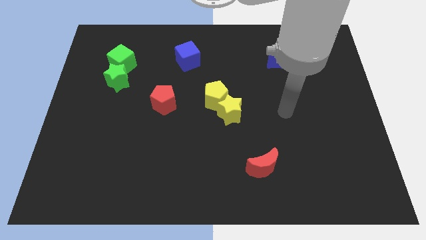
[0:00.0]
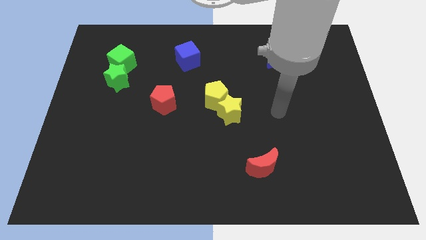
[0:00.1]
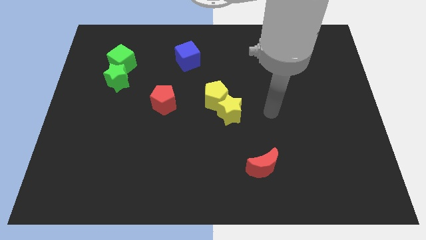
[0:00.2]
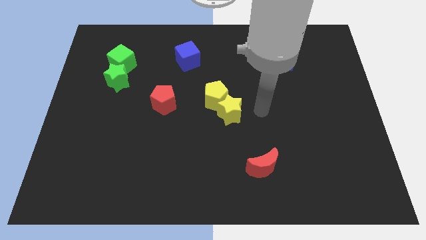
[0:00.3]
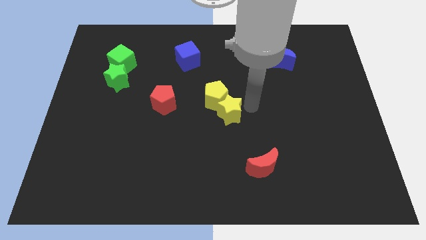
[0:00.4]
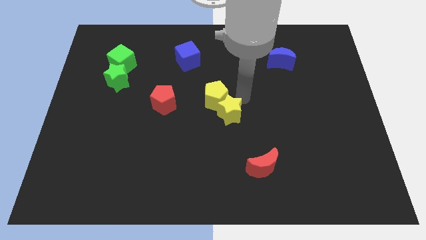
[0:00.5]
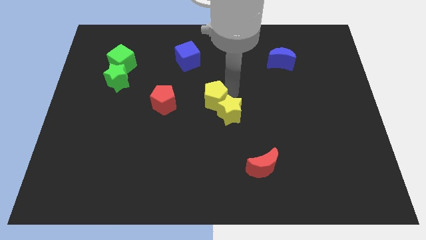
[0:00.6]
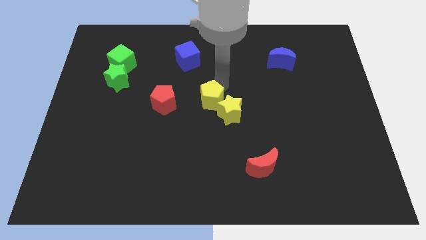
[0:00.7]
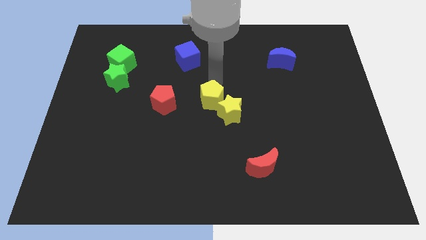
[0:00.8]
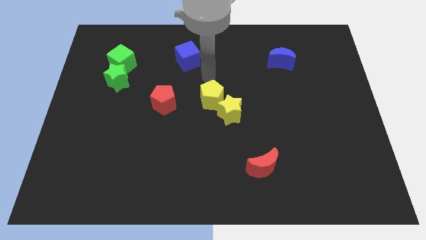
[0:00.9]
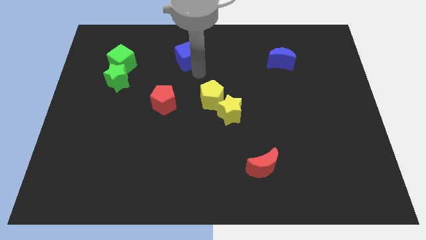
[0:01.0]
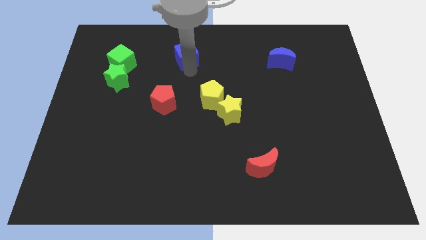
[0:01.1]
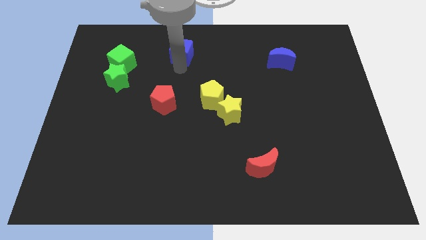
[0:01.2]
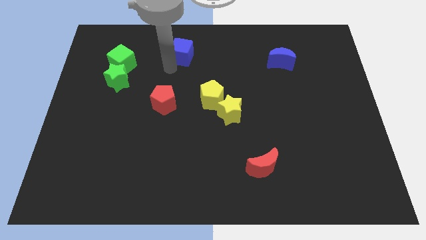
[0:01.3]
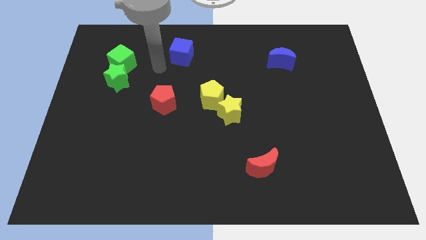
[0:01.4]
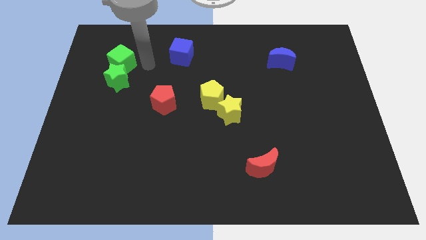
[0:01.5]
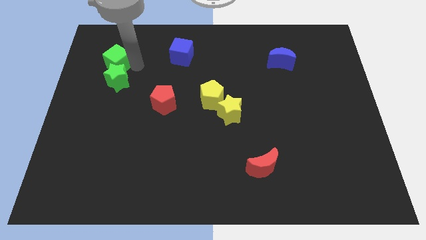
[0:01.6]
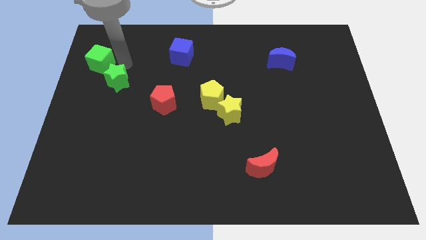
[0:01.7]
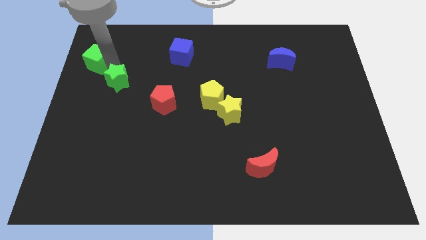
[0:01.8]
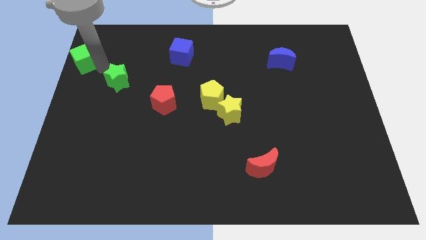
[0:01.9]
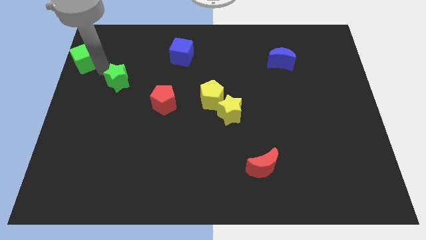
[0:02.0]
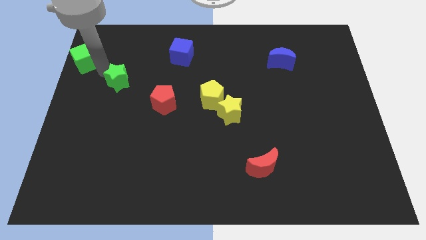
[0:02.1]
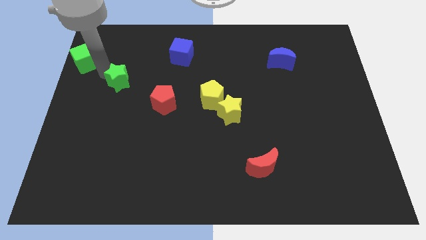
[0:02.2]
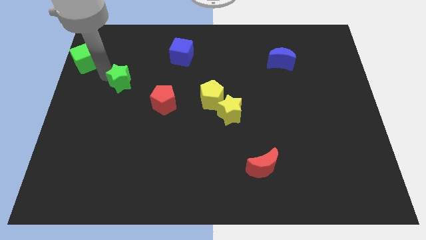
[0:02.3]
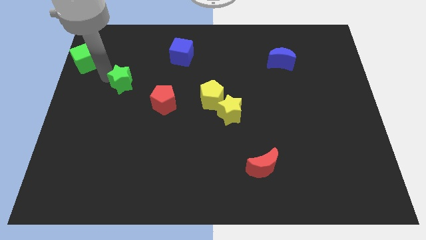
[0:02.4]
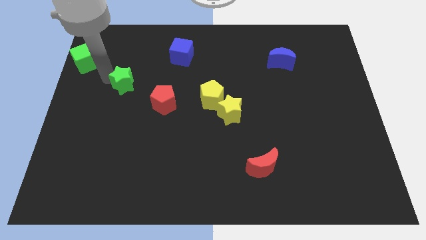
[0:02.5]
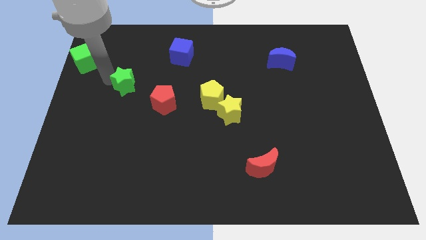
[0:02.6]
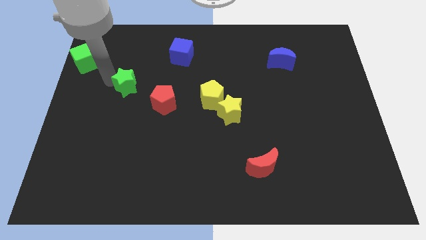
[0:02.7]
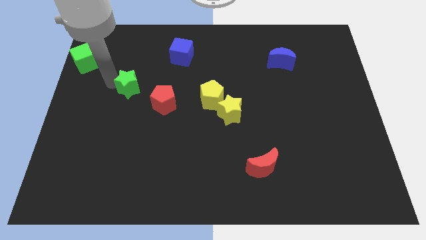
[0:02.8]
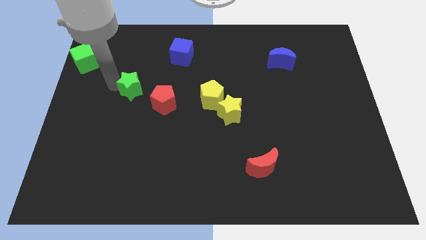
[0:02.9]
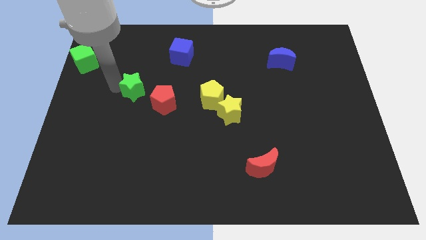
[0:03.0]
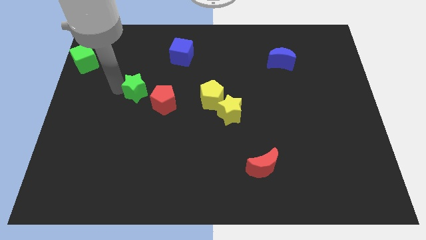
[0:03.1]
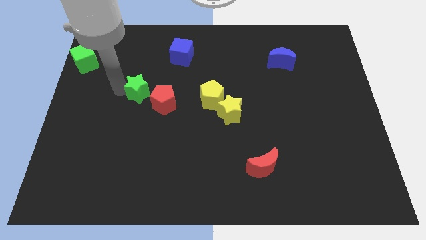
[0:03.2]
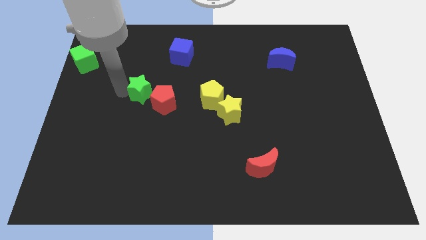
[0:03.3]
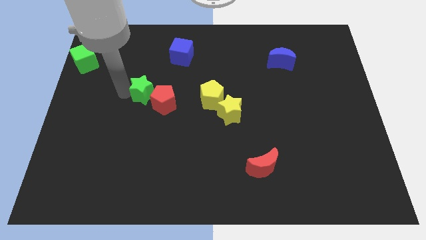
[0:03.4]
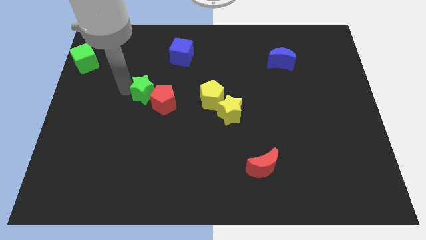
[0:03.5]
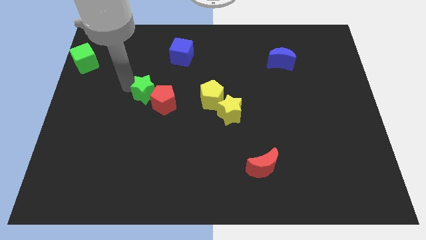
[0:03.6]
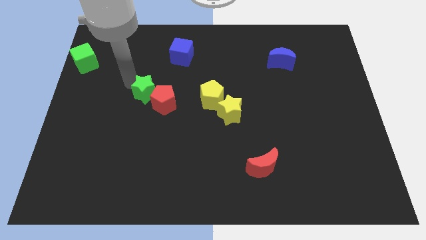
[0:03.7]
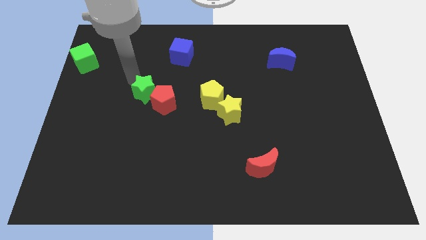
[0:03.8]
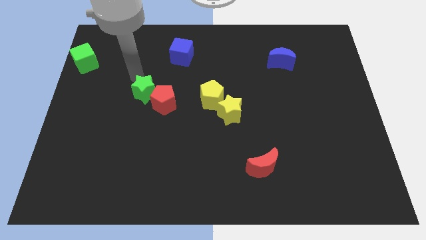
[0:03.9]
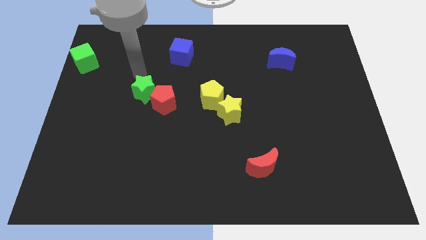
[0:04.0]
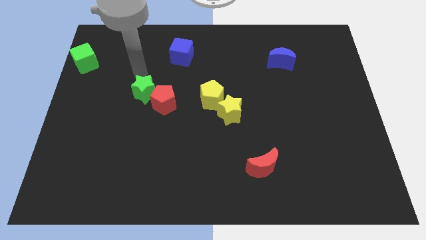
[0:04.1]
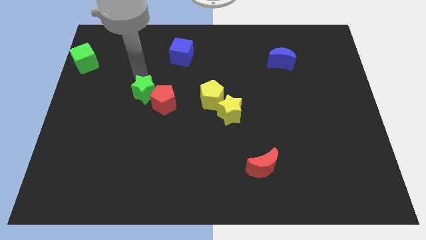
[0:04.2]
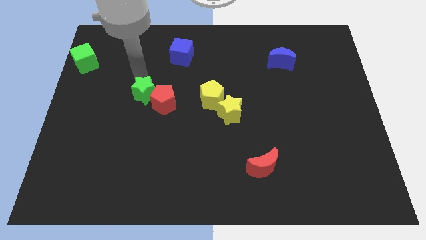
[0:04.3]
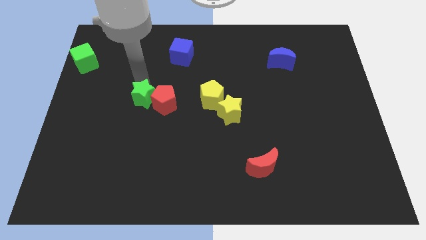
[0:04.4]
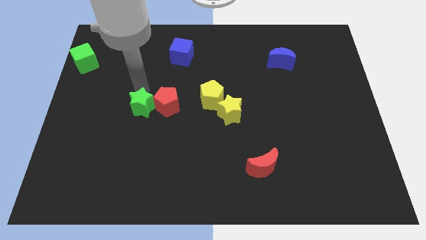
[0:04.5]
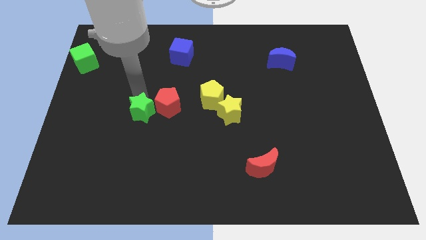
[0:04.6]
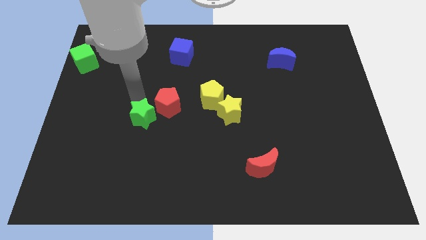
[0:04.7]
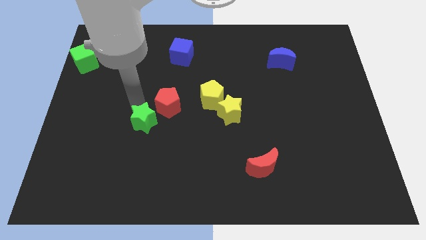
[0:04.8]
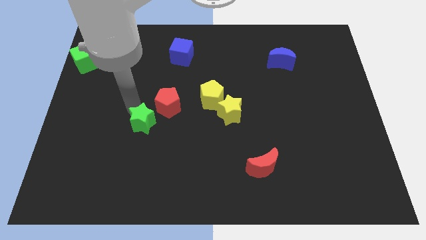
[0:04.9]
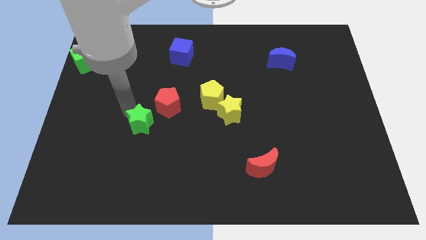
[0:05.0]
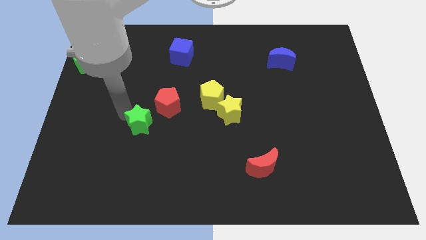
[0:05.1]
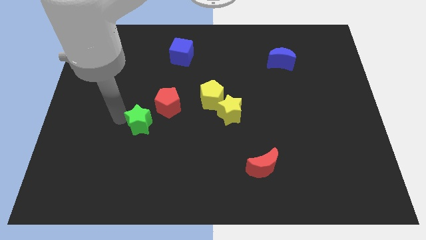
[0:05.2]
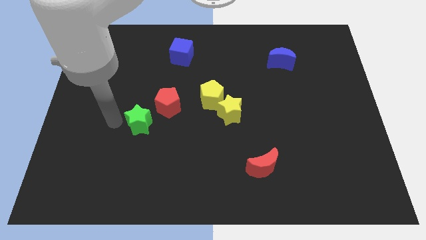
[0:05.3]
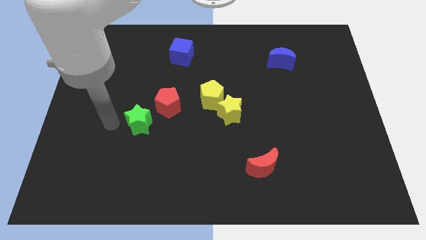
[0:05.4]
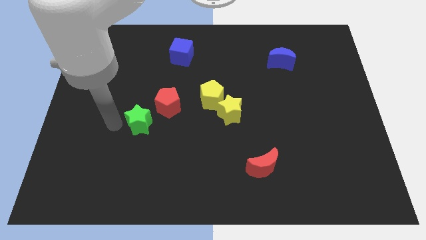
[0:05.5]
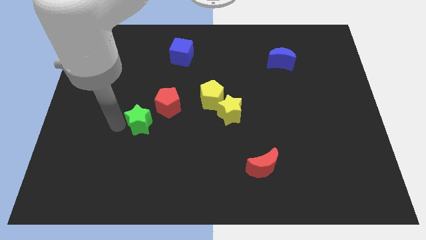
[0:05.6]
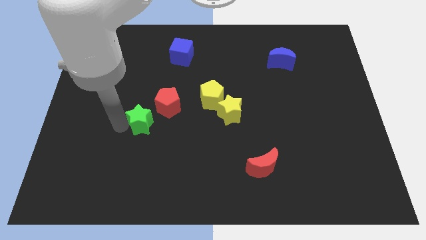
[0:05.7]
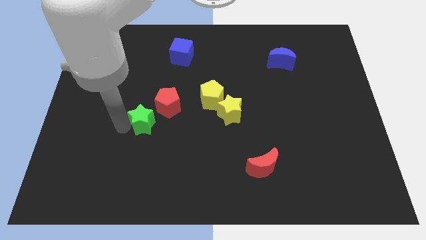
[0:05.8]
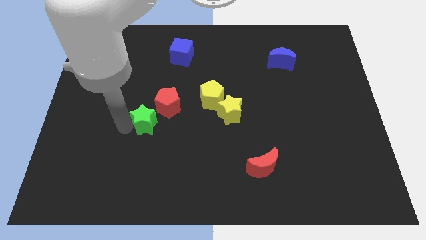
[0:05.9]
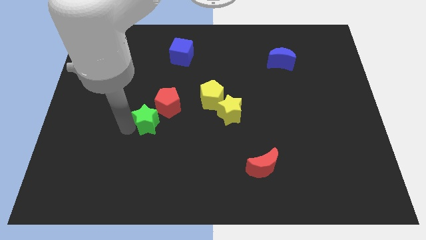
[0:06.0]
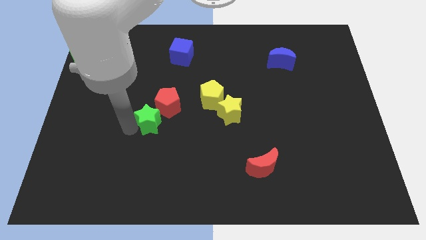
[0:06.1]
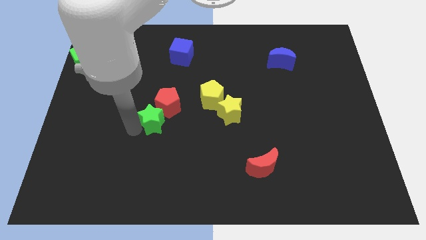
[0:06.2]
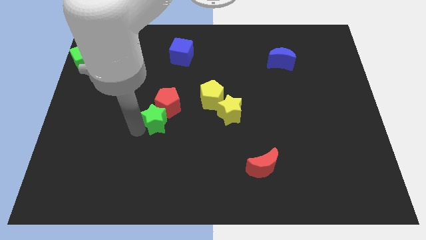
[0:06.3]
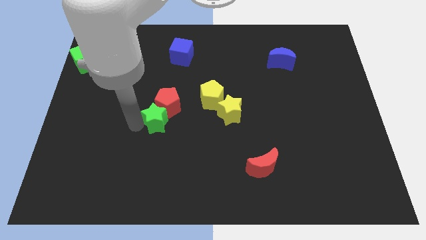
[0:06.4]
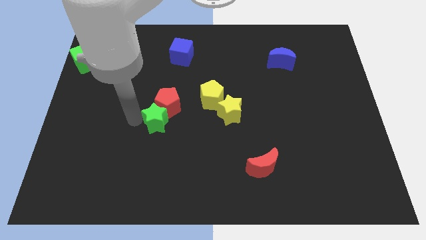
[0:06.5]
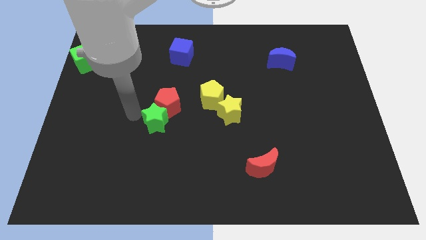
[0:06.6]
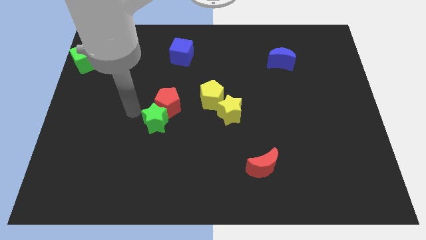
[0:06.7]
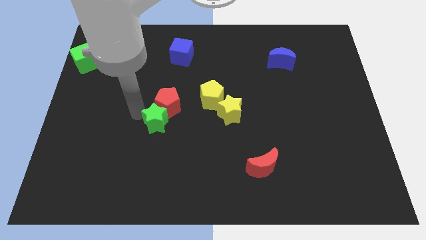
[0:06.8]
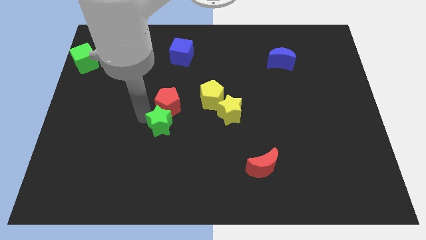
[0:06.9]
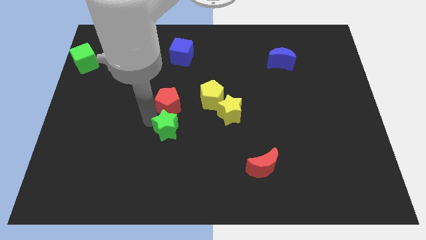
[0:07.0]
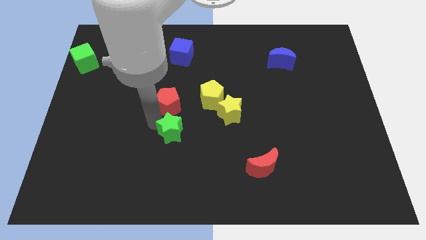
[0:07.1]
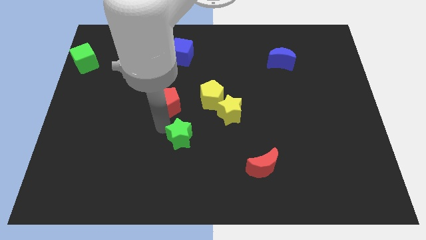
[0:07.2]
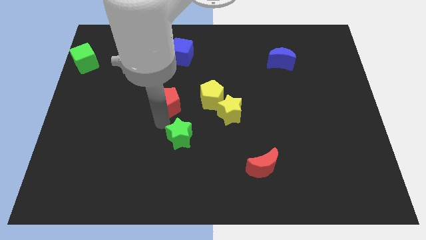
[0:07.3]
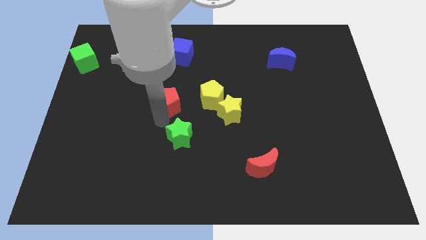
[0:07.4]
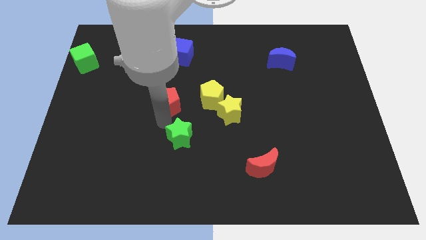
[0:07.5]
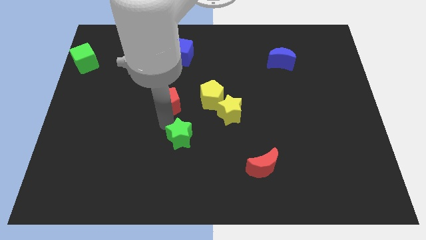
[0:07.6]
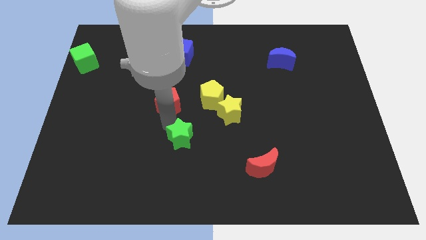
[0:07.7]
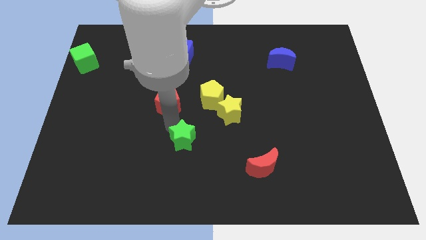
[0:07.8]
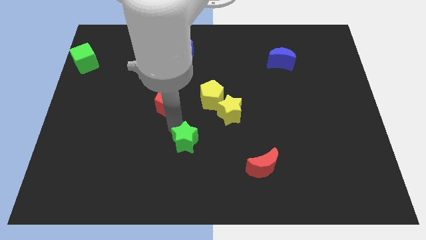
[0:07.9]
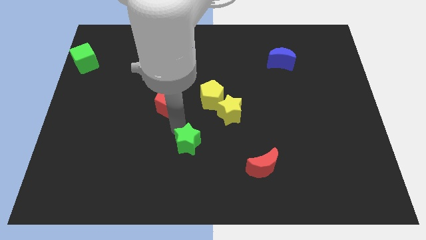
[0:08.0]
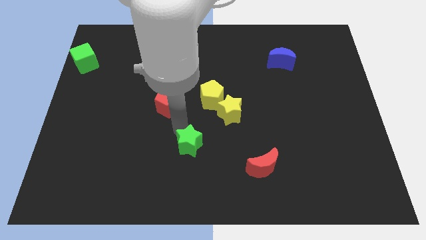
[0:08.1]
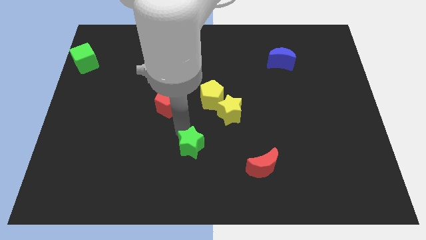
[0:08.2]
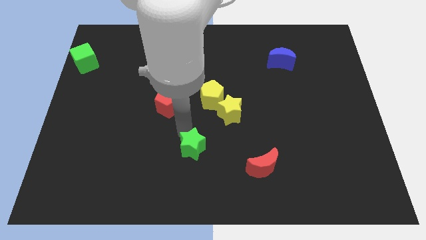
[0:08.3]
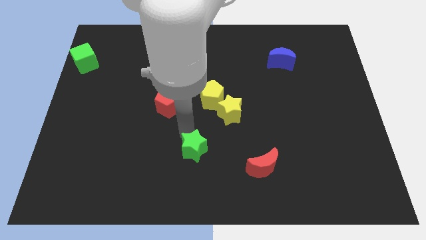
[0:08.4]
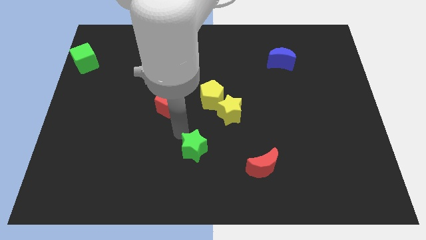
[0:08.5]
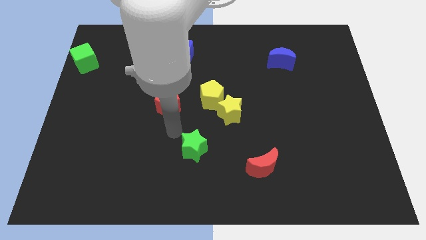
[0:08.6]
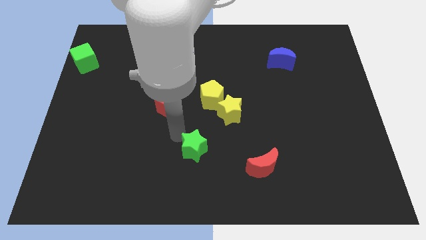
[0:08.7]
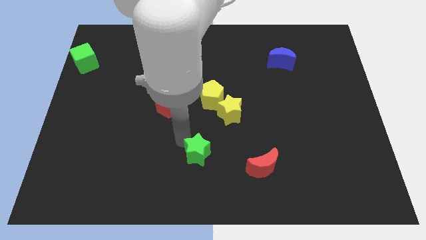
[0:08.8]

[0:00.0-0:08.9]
move the green star to the left side of the red moon
